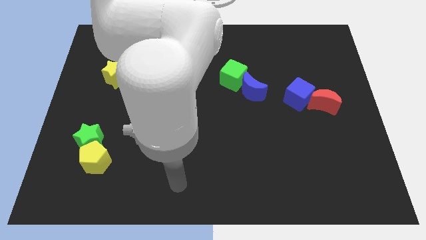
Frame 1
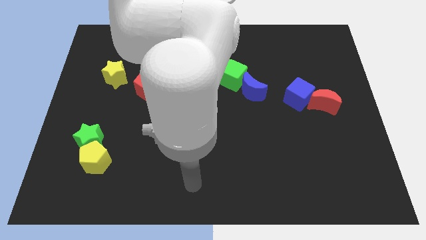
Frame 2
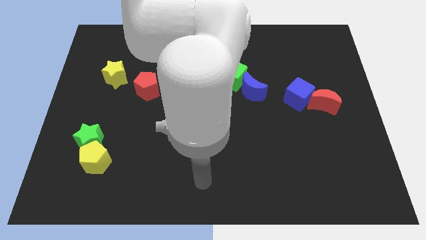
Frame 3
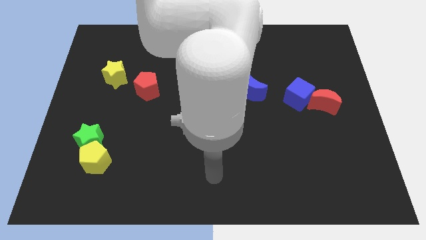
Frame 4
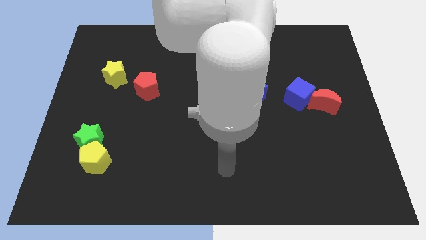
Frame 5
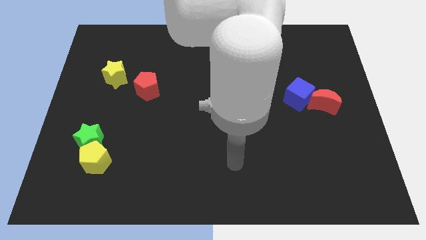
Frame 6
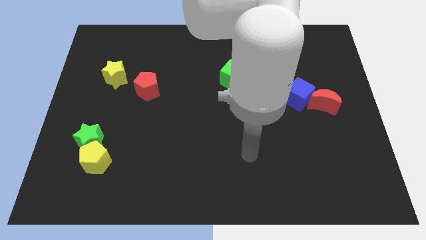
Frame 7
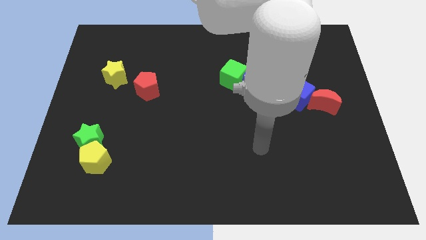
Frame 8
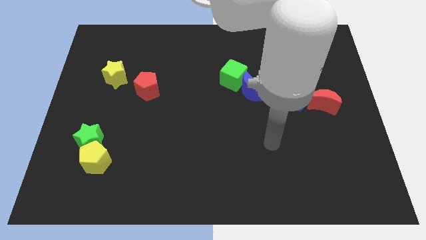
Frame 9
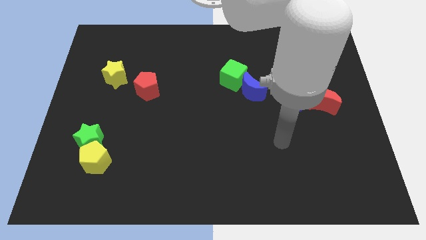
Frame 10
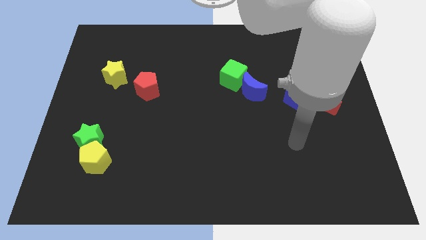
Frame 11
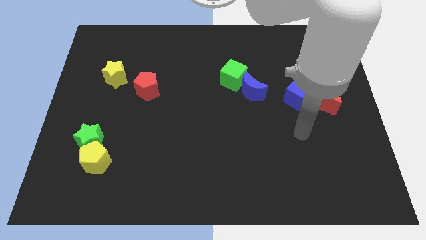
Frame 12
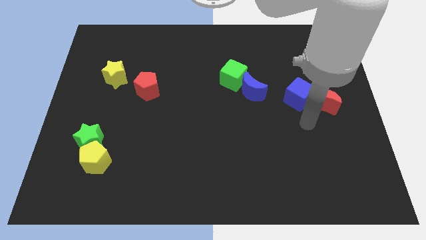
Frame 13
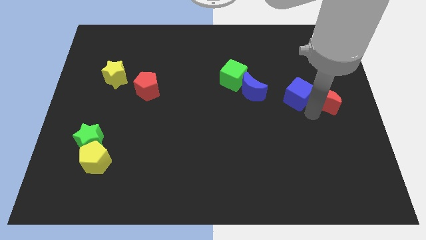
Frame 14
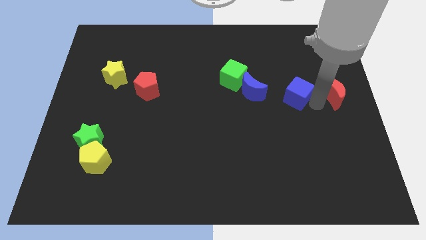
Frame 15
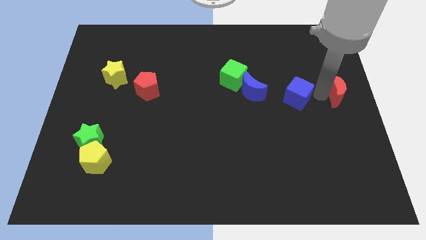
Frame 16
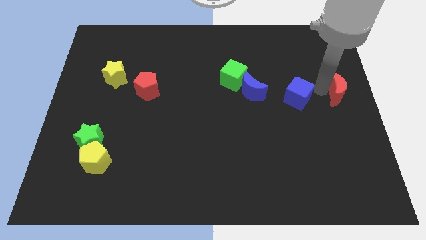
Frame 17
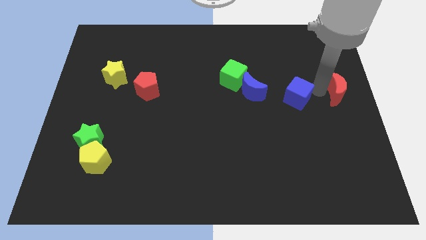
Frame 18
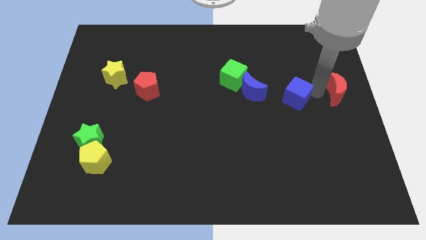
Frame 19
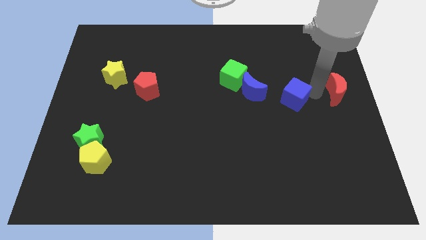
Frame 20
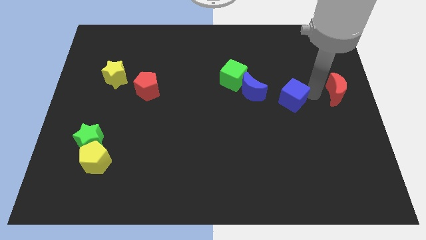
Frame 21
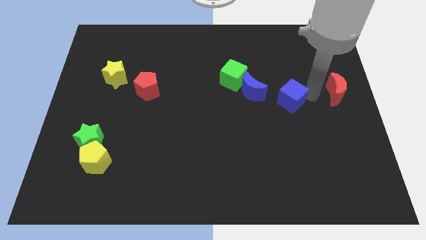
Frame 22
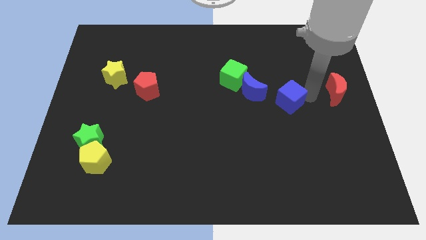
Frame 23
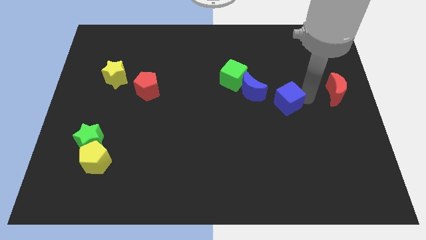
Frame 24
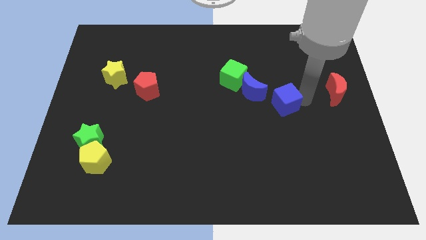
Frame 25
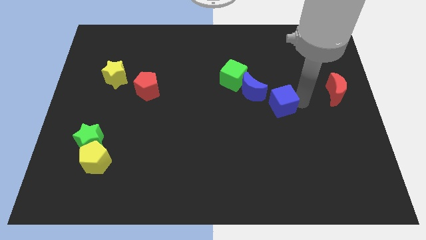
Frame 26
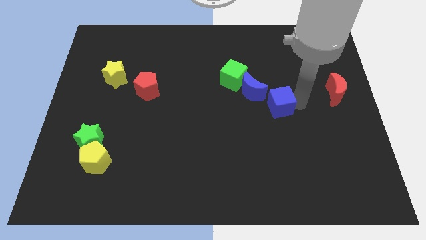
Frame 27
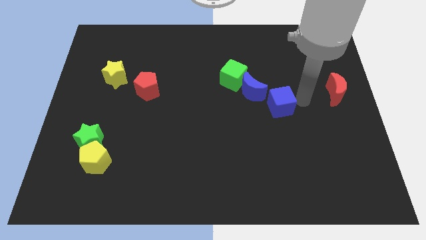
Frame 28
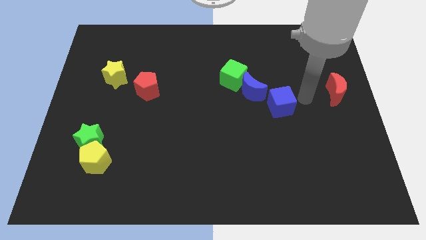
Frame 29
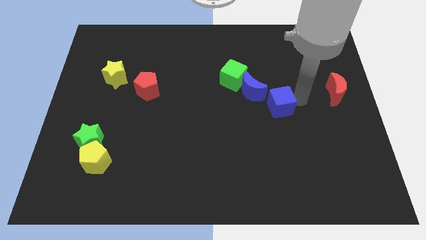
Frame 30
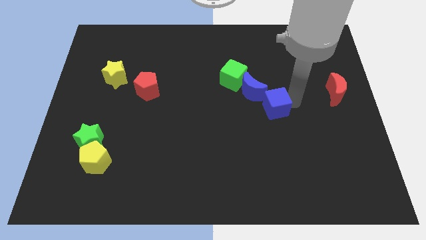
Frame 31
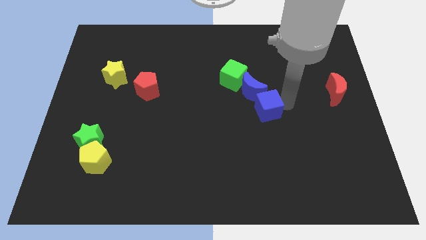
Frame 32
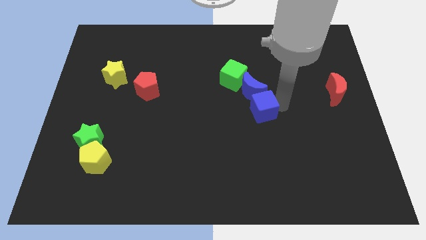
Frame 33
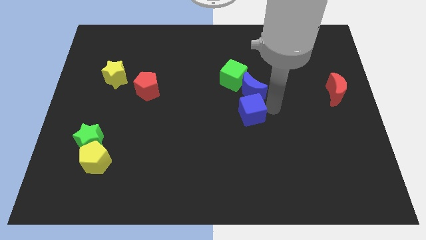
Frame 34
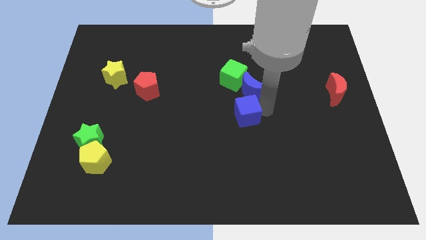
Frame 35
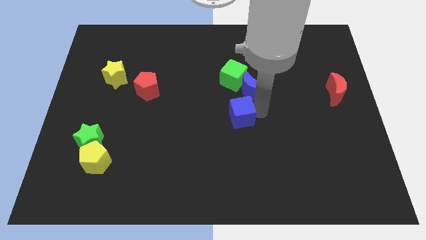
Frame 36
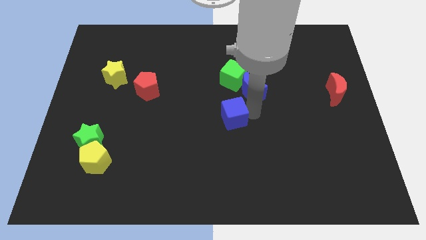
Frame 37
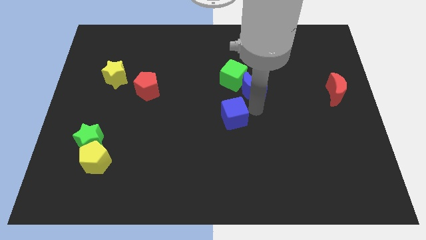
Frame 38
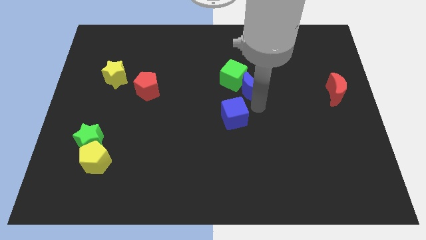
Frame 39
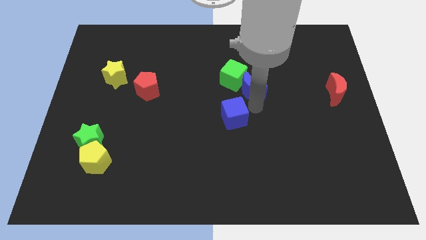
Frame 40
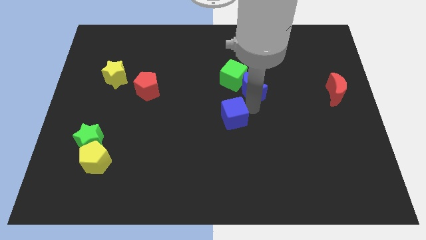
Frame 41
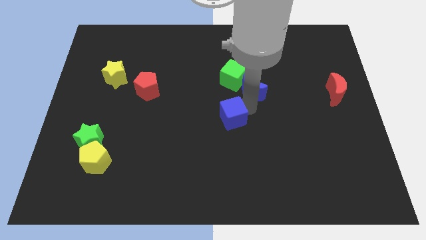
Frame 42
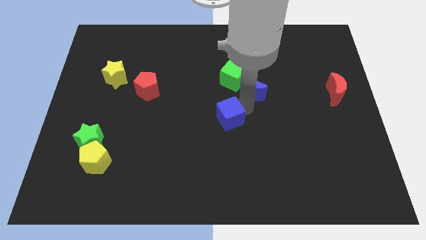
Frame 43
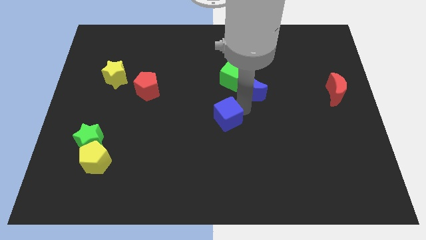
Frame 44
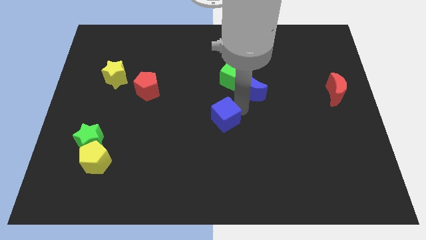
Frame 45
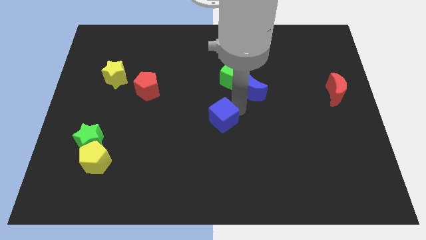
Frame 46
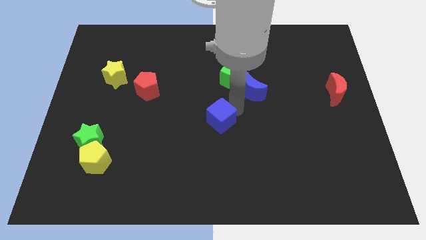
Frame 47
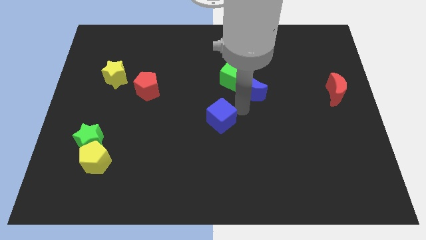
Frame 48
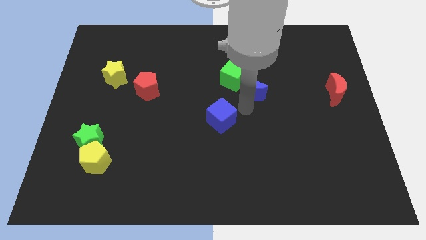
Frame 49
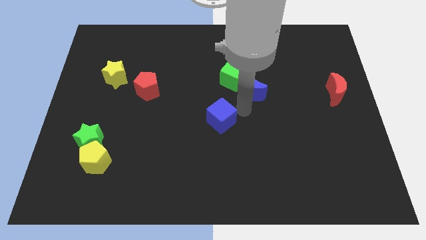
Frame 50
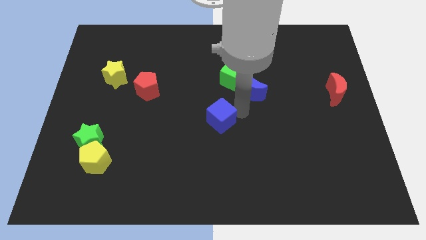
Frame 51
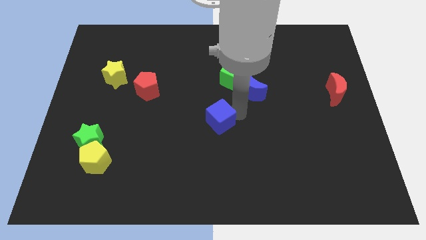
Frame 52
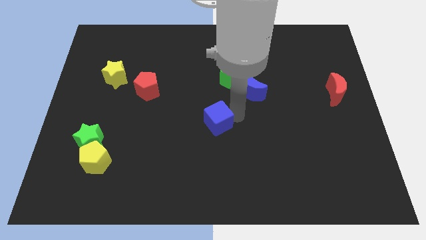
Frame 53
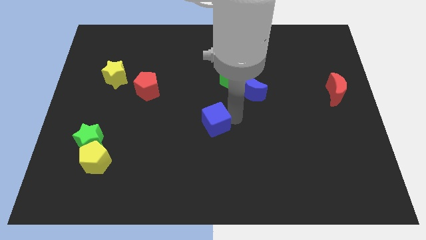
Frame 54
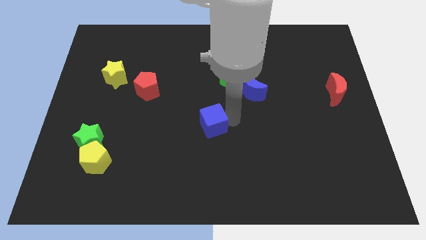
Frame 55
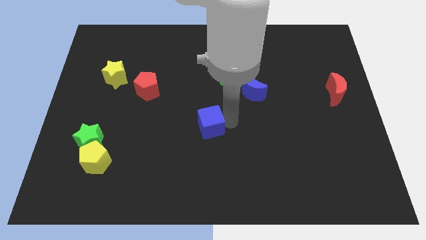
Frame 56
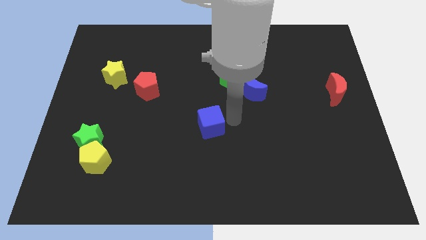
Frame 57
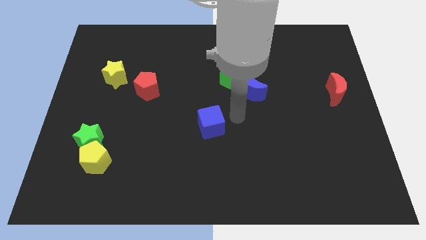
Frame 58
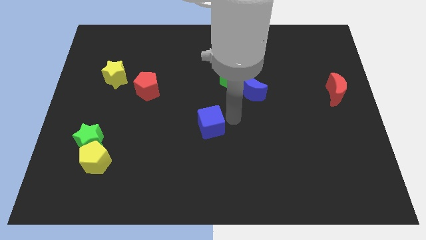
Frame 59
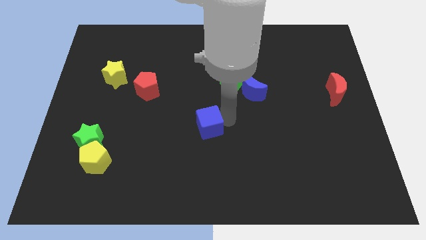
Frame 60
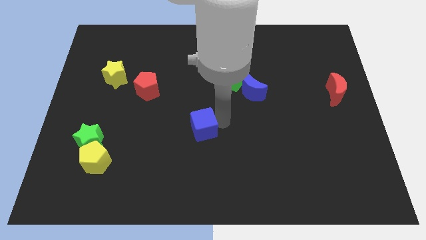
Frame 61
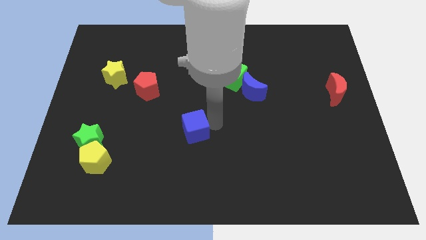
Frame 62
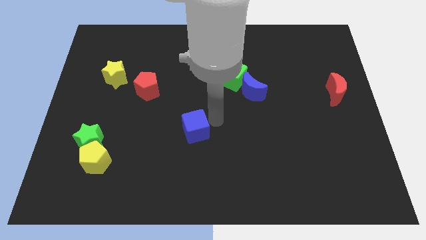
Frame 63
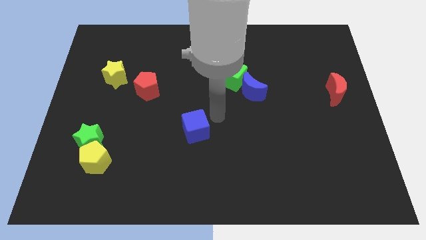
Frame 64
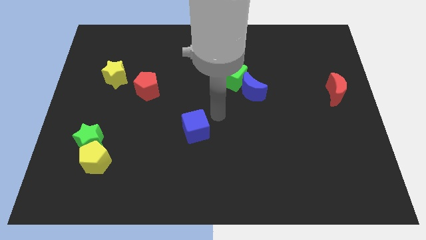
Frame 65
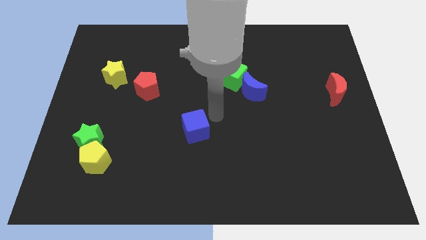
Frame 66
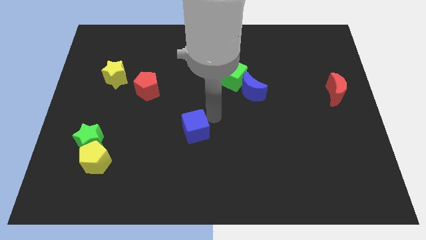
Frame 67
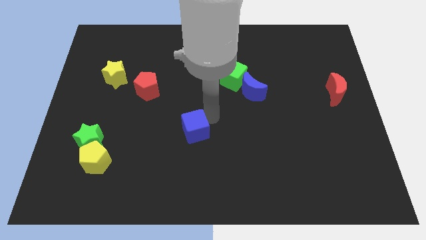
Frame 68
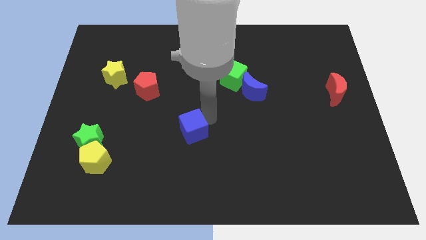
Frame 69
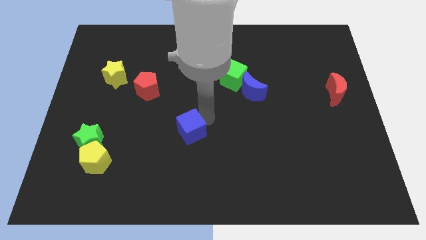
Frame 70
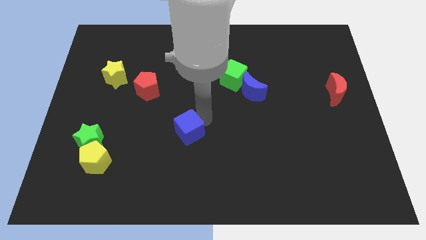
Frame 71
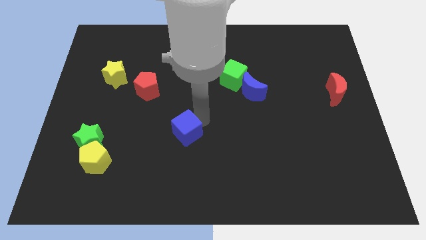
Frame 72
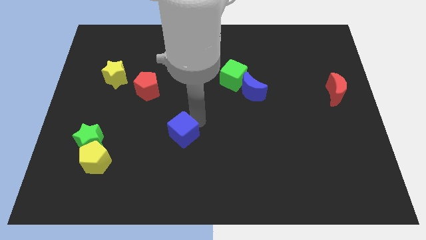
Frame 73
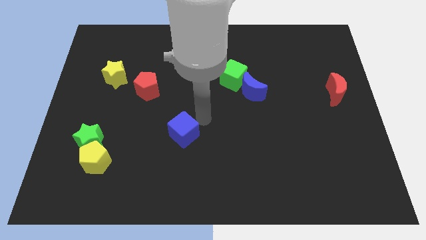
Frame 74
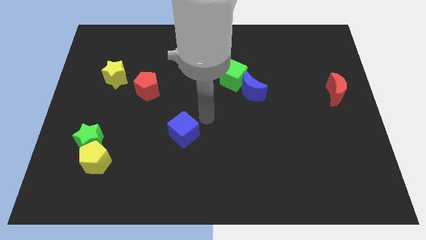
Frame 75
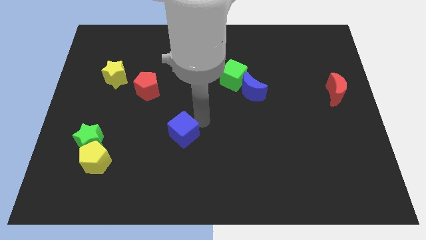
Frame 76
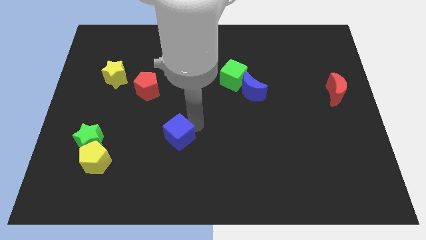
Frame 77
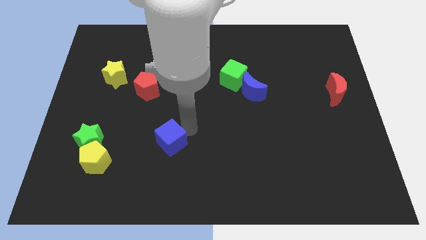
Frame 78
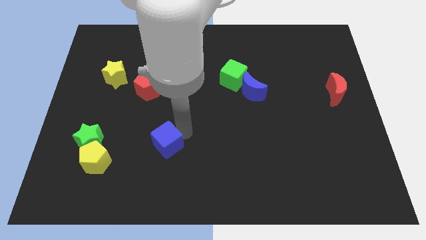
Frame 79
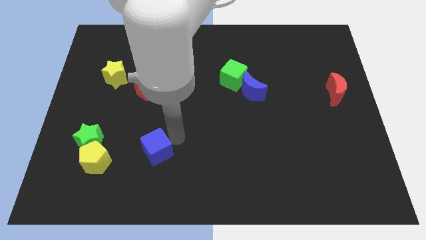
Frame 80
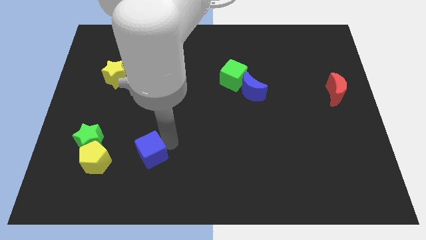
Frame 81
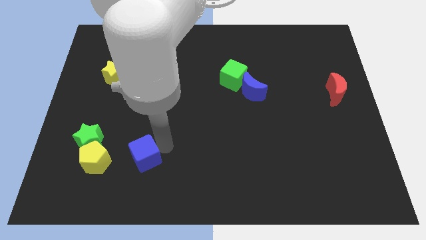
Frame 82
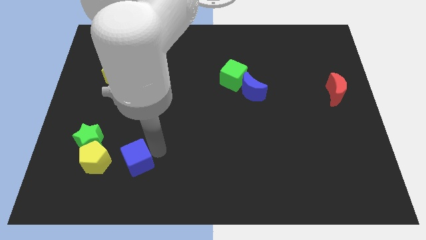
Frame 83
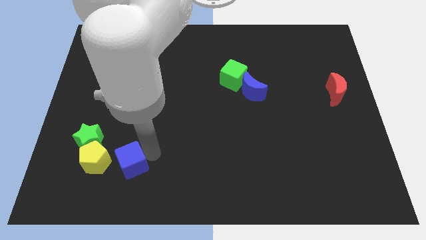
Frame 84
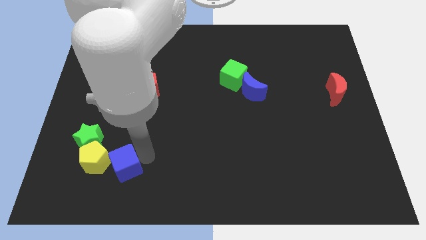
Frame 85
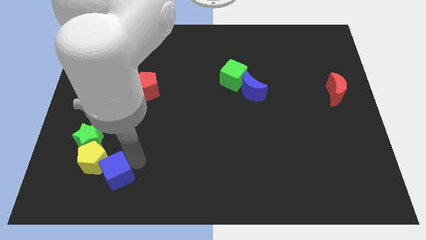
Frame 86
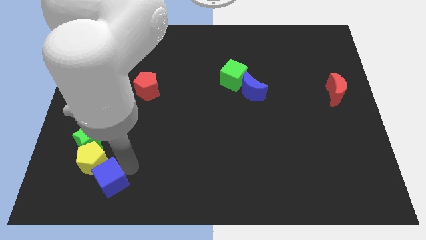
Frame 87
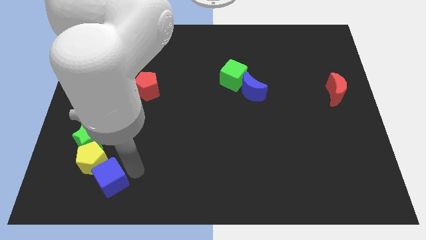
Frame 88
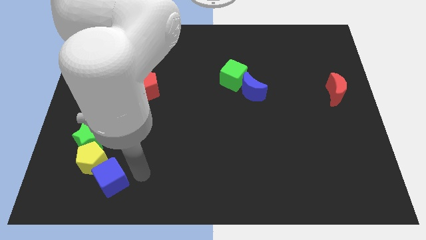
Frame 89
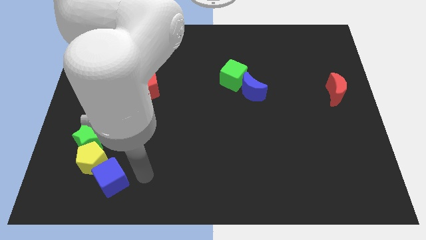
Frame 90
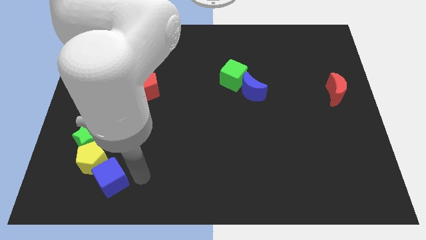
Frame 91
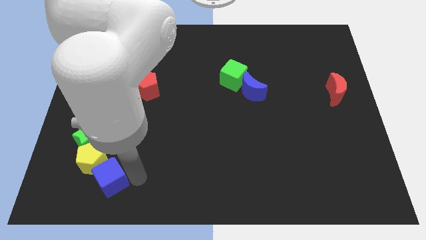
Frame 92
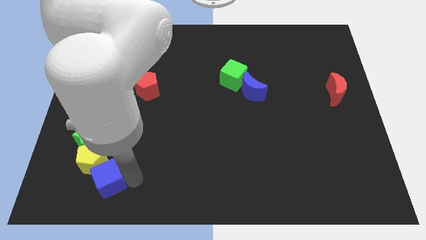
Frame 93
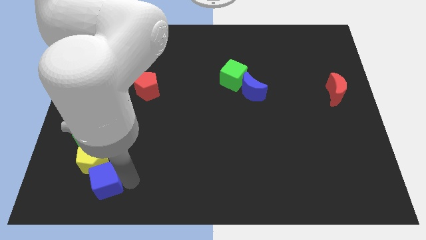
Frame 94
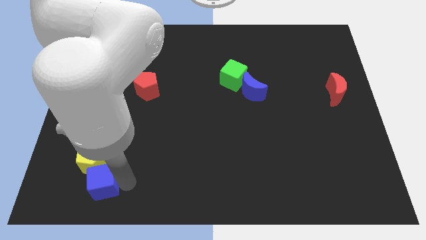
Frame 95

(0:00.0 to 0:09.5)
push the blue cube to the bottom of the green star
